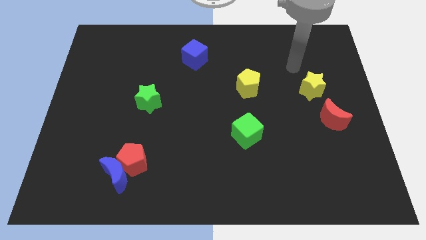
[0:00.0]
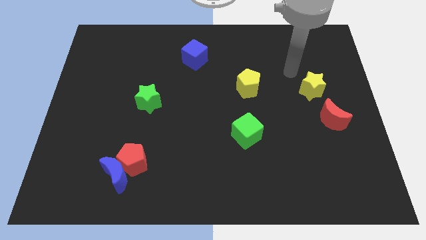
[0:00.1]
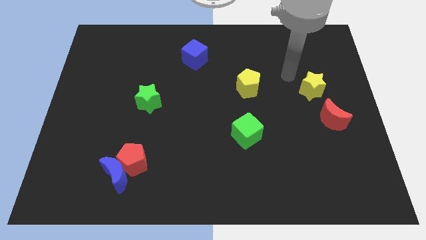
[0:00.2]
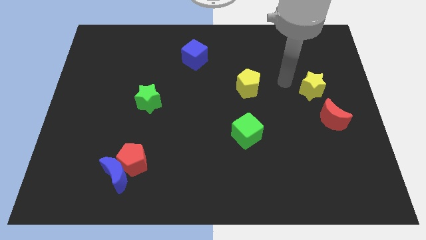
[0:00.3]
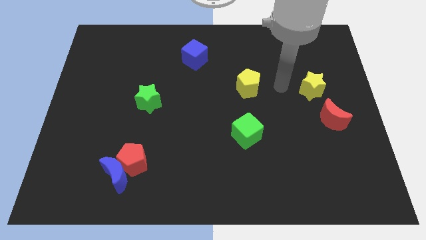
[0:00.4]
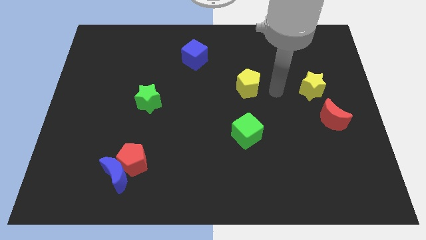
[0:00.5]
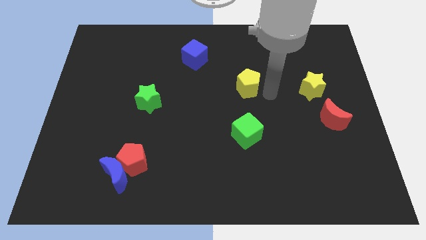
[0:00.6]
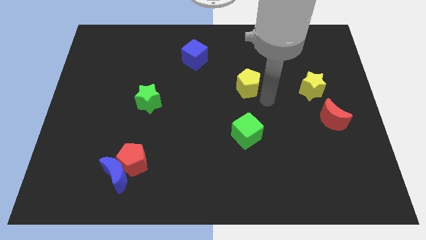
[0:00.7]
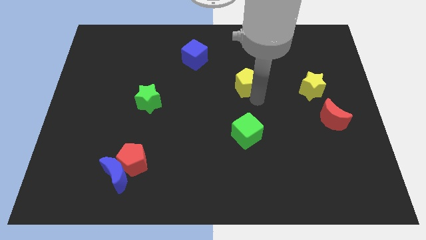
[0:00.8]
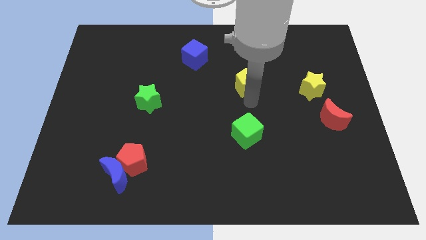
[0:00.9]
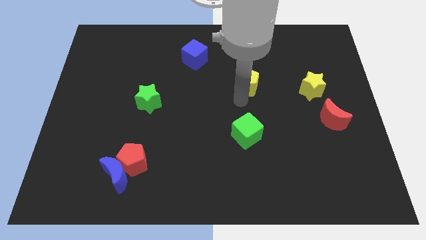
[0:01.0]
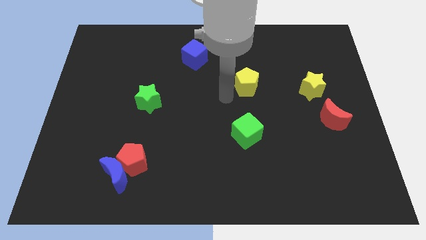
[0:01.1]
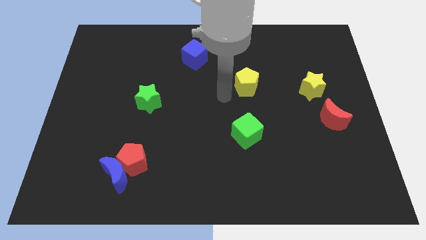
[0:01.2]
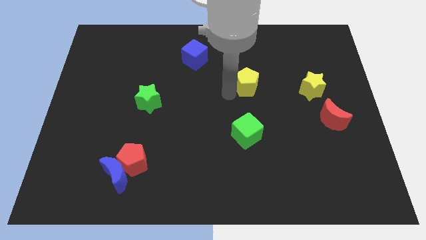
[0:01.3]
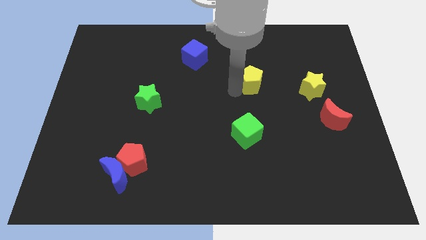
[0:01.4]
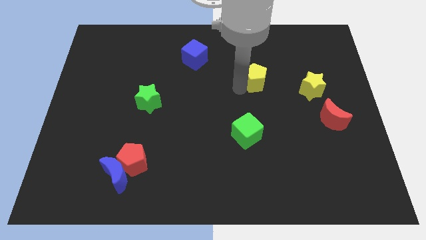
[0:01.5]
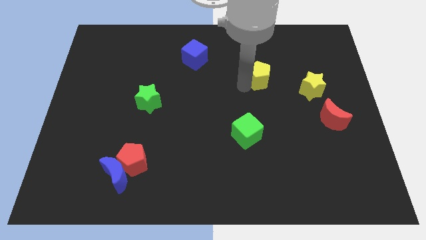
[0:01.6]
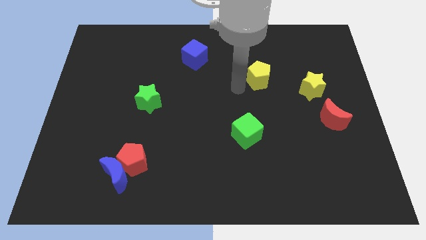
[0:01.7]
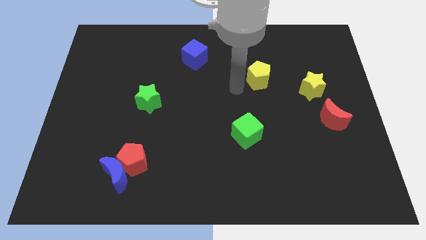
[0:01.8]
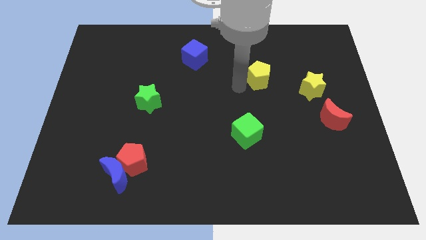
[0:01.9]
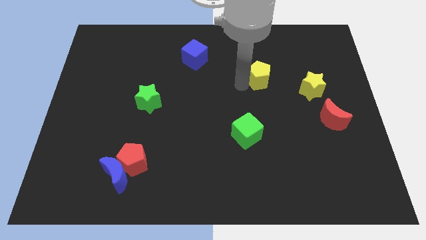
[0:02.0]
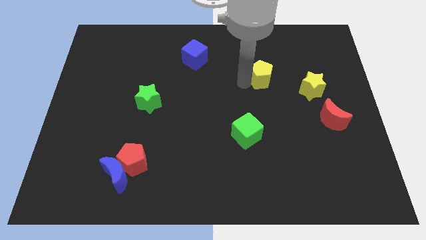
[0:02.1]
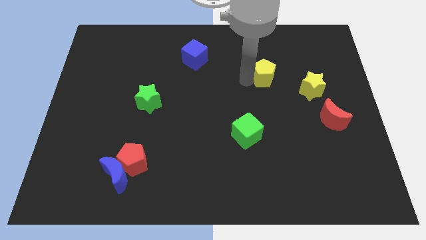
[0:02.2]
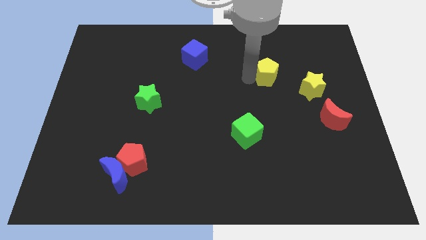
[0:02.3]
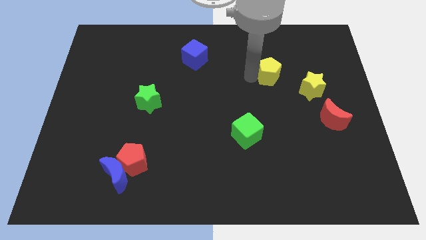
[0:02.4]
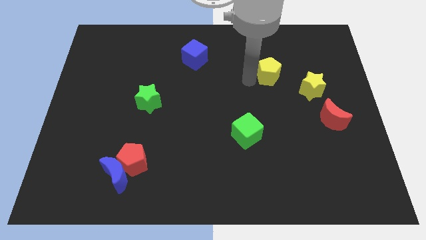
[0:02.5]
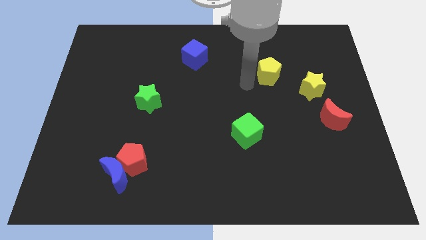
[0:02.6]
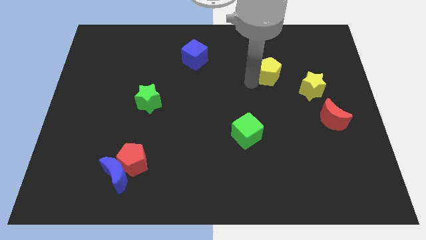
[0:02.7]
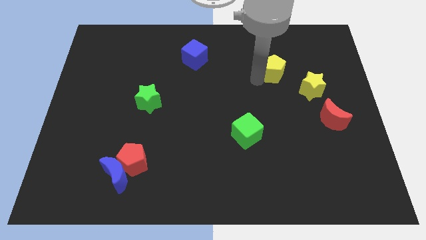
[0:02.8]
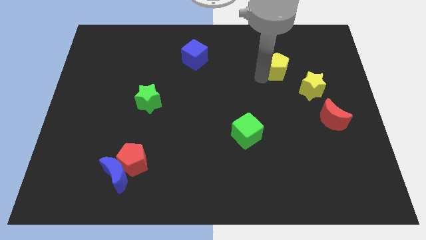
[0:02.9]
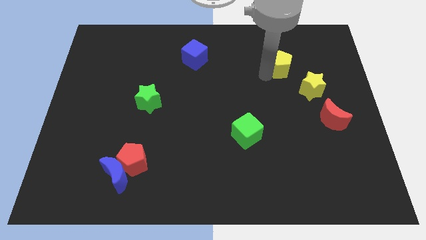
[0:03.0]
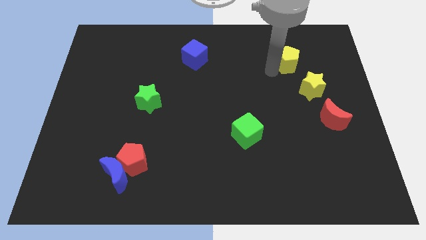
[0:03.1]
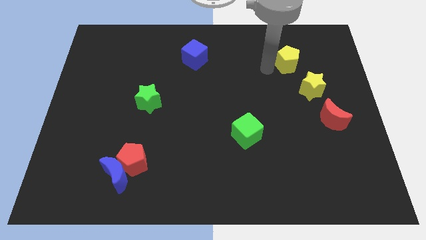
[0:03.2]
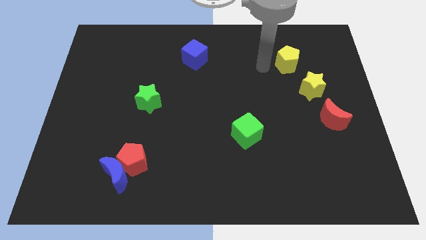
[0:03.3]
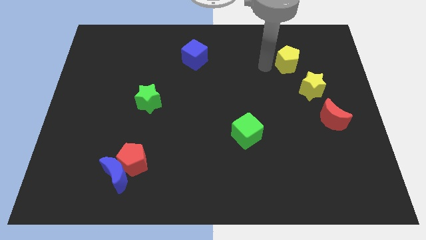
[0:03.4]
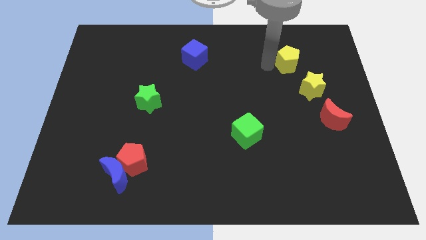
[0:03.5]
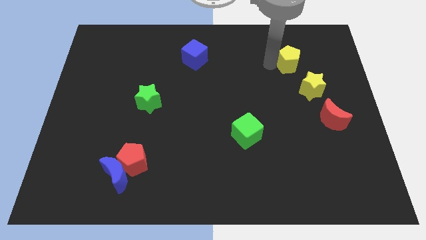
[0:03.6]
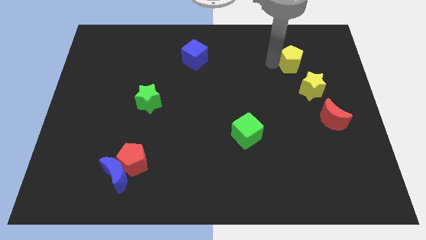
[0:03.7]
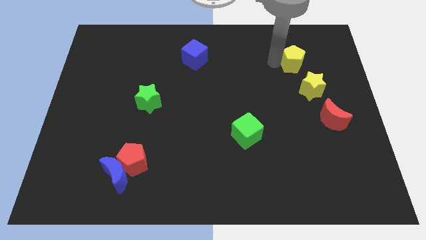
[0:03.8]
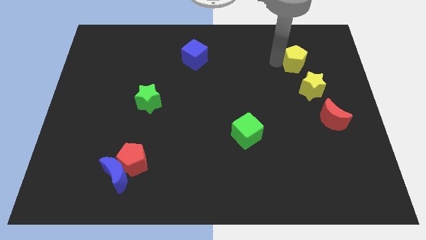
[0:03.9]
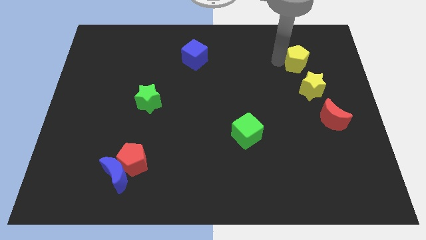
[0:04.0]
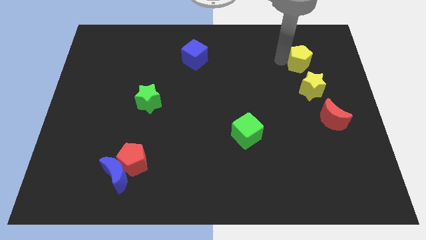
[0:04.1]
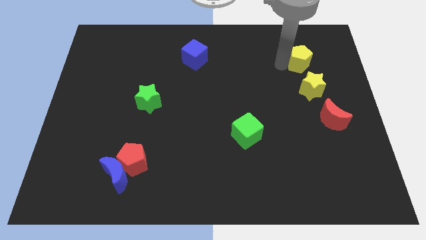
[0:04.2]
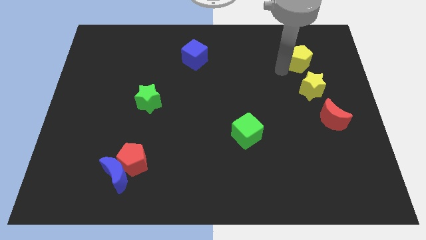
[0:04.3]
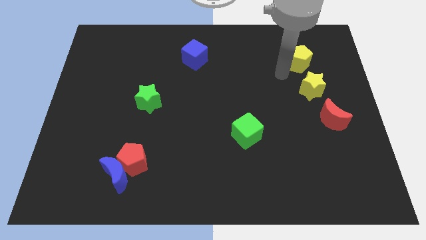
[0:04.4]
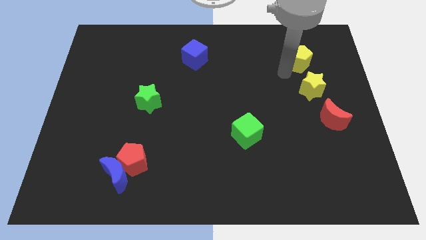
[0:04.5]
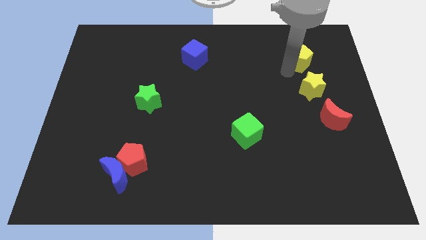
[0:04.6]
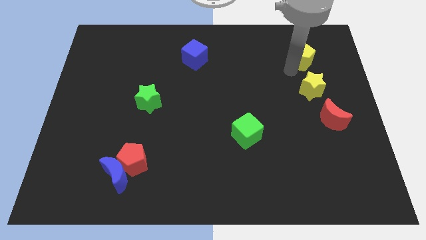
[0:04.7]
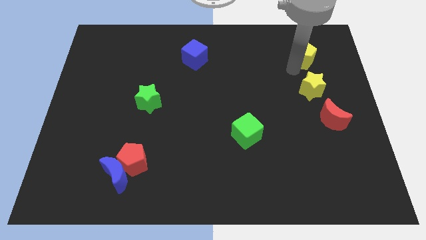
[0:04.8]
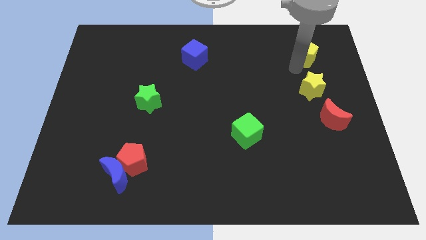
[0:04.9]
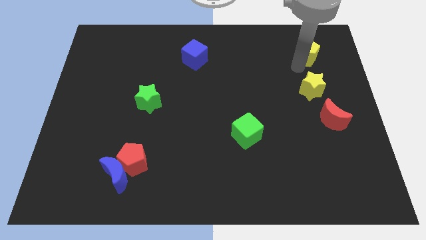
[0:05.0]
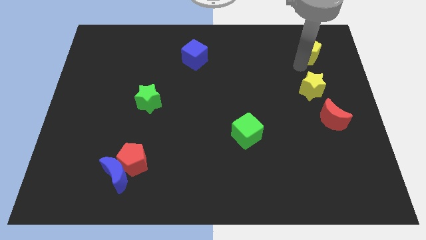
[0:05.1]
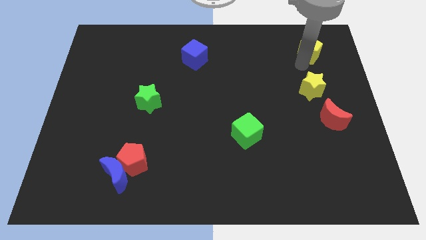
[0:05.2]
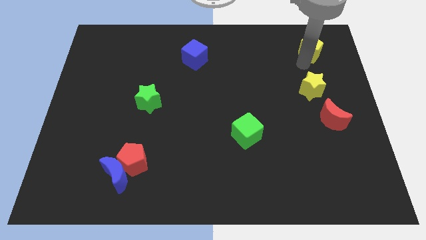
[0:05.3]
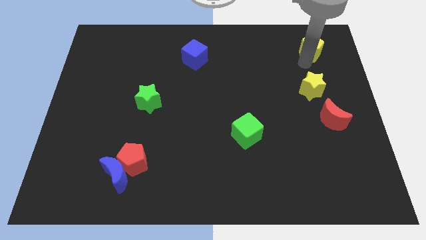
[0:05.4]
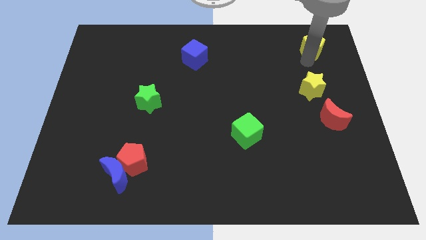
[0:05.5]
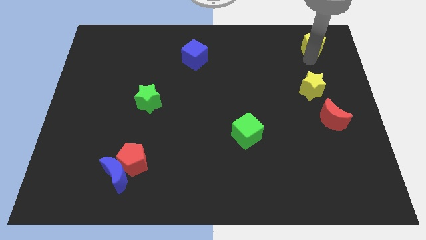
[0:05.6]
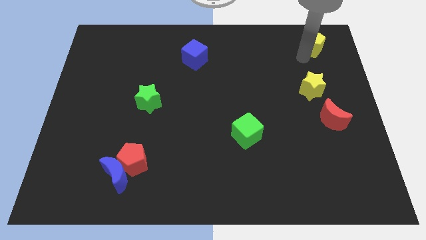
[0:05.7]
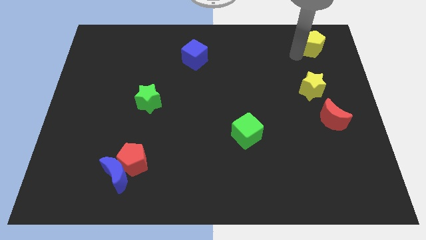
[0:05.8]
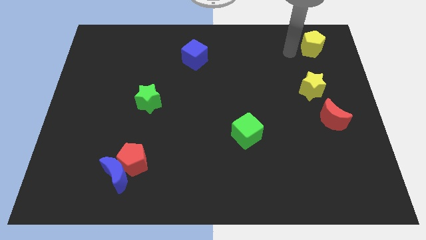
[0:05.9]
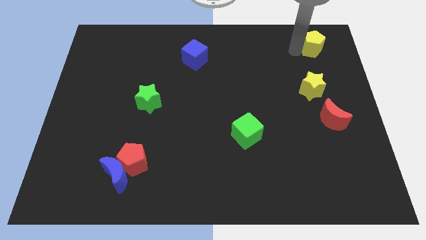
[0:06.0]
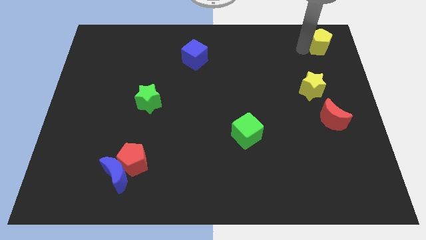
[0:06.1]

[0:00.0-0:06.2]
move the yellow pentagon to the top right corner

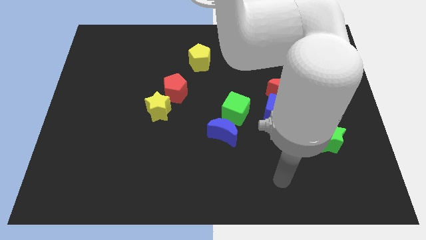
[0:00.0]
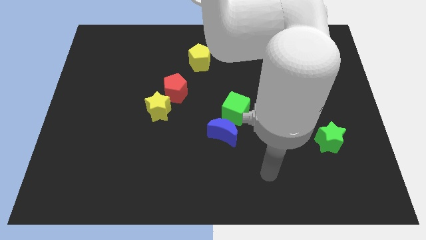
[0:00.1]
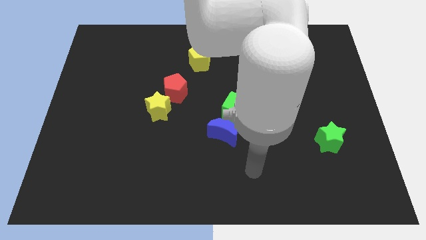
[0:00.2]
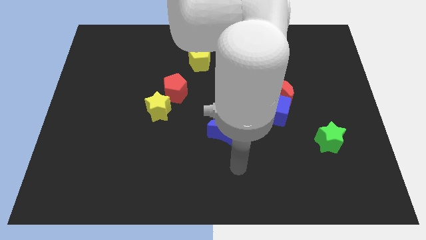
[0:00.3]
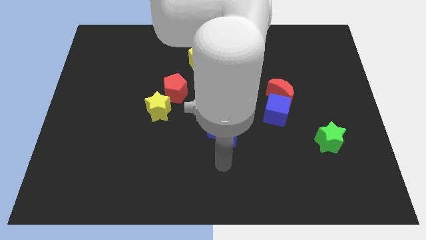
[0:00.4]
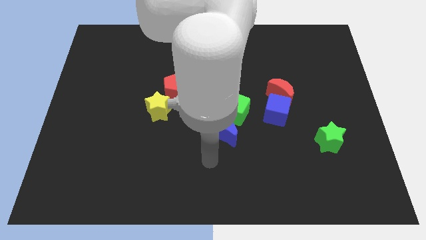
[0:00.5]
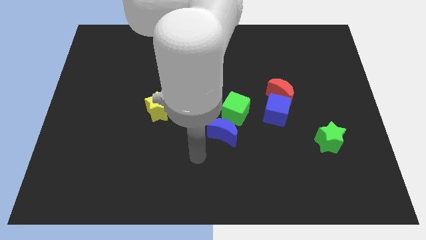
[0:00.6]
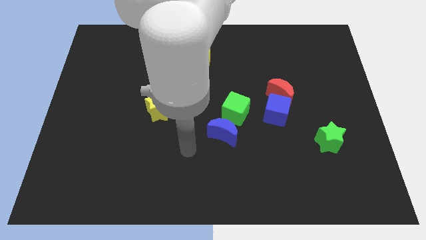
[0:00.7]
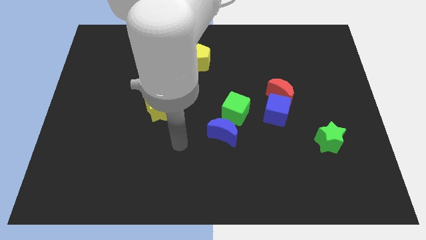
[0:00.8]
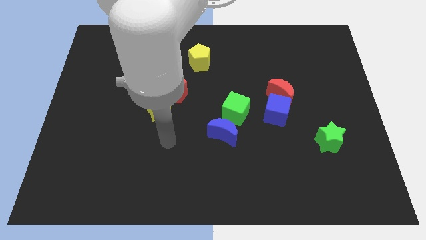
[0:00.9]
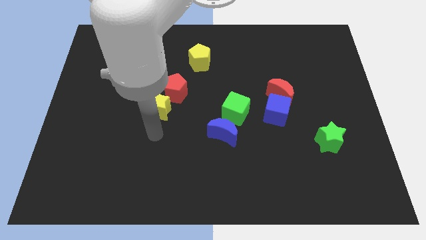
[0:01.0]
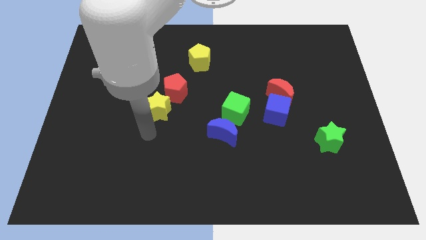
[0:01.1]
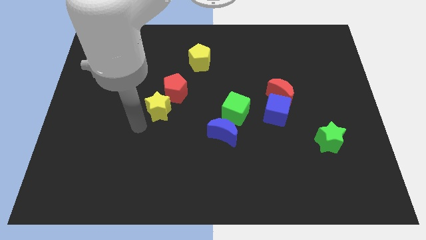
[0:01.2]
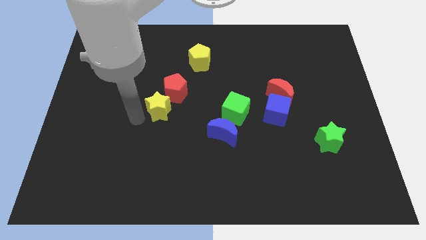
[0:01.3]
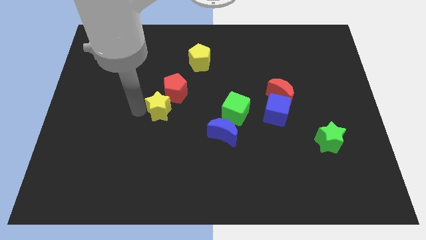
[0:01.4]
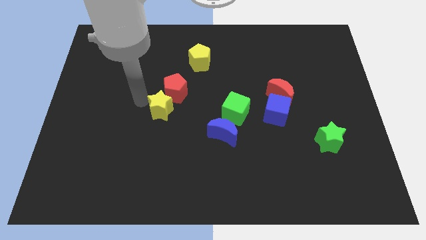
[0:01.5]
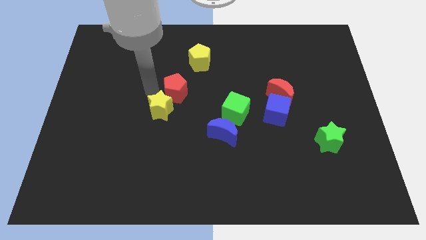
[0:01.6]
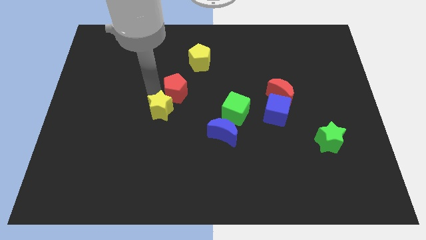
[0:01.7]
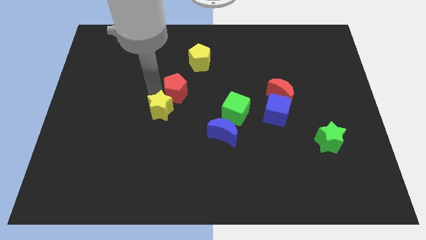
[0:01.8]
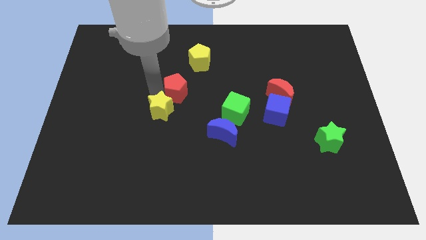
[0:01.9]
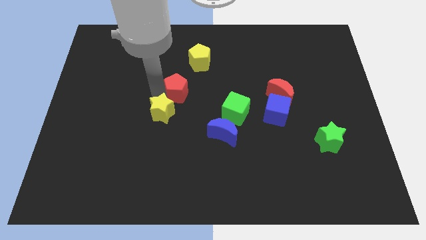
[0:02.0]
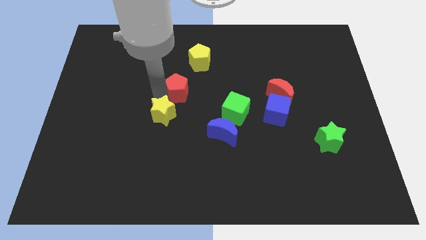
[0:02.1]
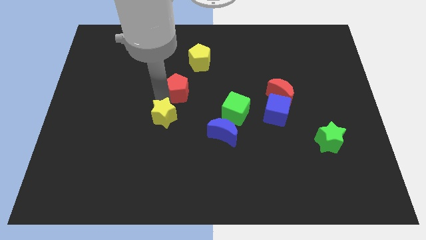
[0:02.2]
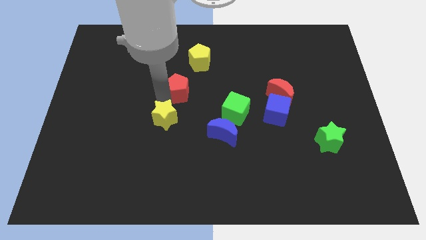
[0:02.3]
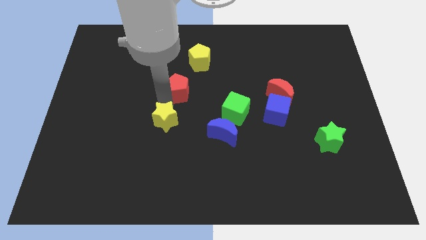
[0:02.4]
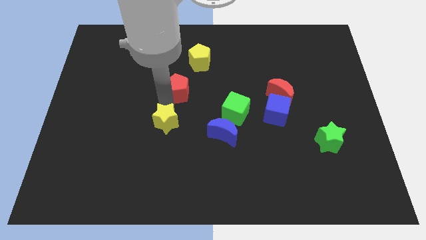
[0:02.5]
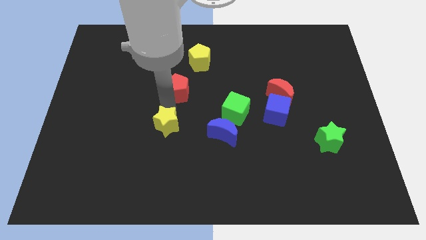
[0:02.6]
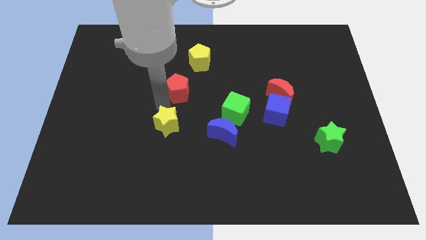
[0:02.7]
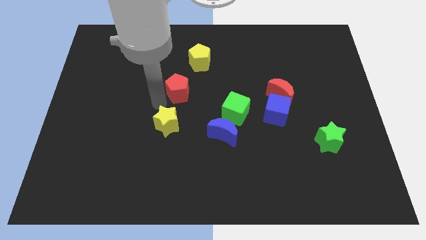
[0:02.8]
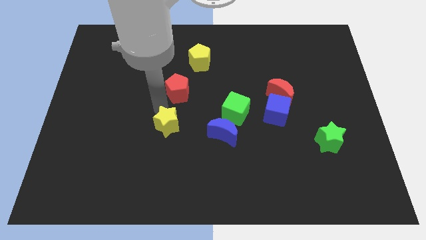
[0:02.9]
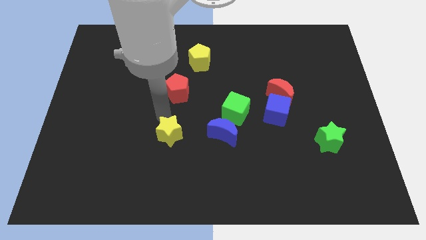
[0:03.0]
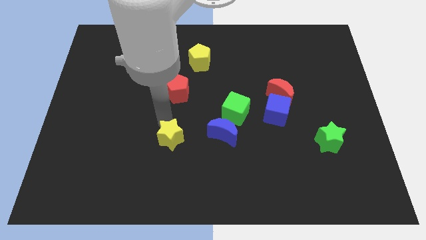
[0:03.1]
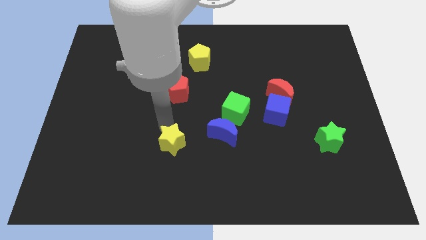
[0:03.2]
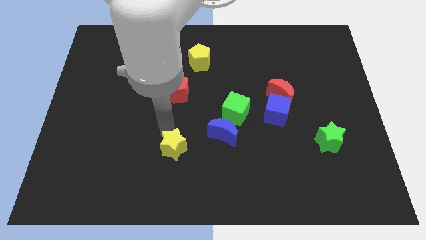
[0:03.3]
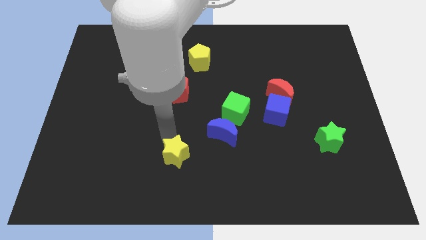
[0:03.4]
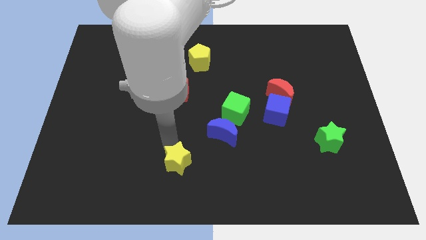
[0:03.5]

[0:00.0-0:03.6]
slide the yellow star to the bottom
